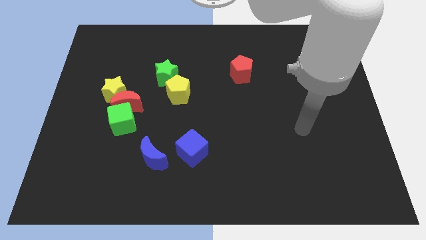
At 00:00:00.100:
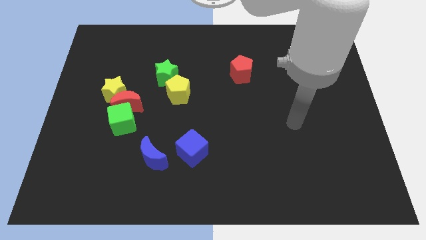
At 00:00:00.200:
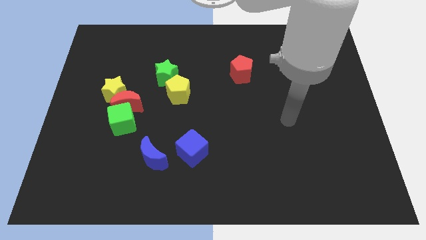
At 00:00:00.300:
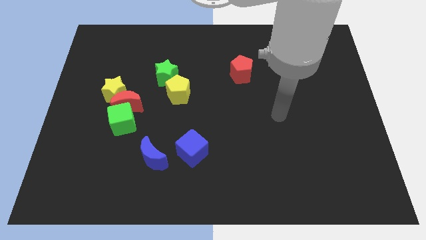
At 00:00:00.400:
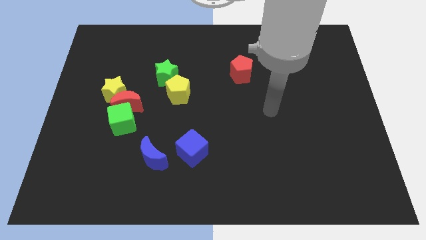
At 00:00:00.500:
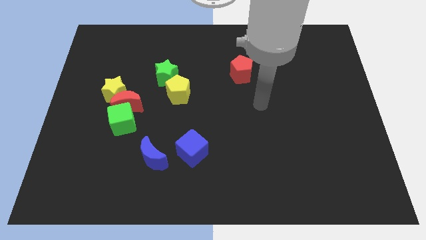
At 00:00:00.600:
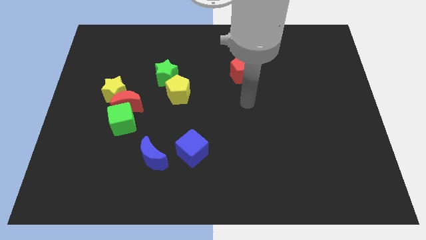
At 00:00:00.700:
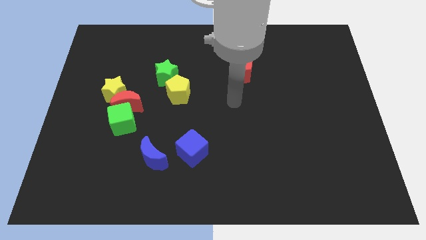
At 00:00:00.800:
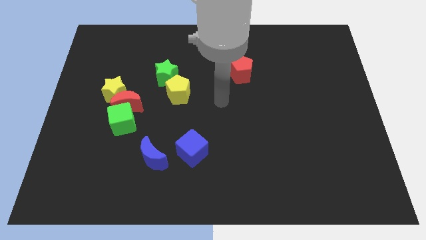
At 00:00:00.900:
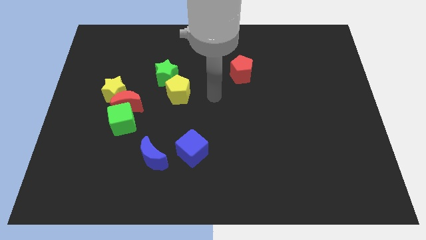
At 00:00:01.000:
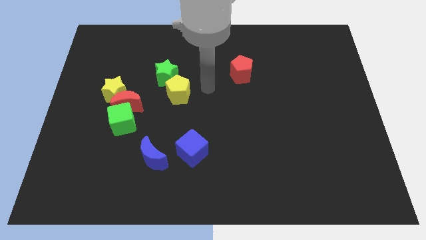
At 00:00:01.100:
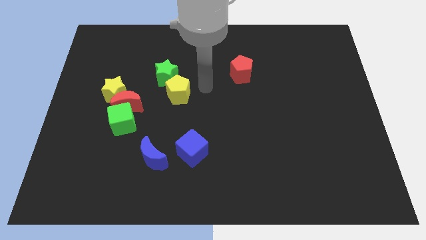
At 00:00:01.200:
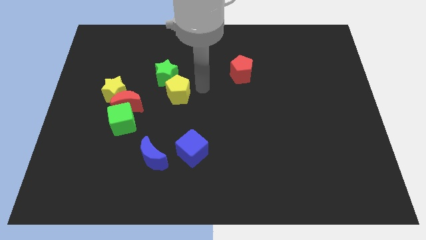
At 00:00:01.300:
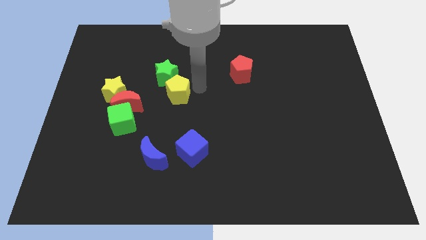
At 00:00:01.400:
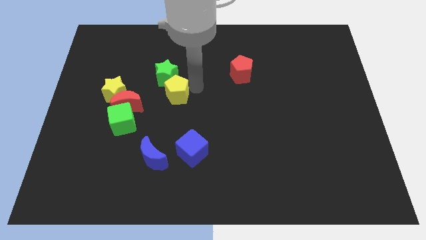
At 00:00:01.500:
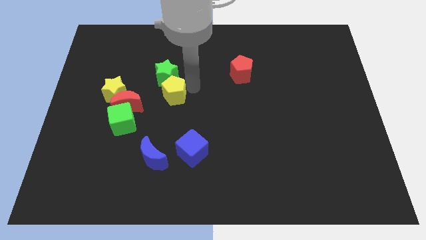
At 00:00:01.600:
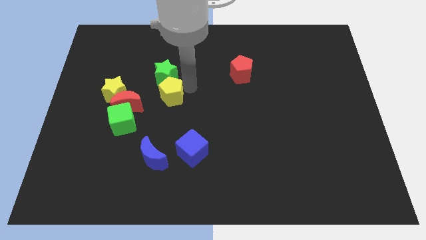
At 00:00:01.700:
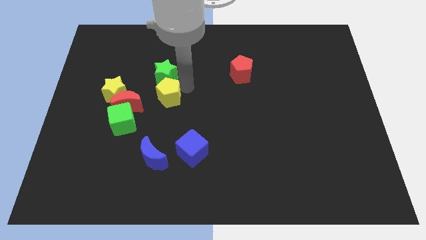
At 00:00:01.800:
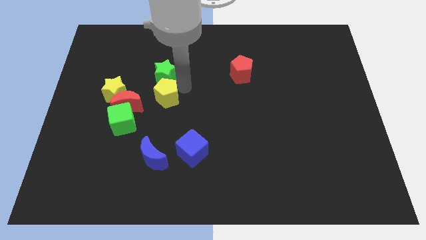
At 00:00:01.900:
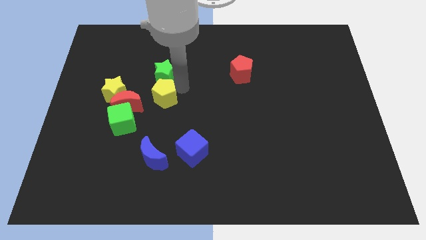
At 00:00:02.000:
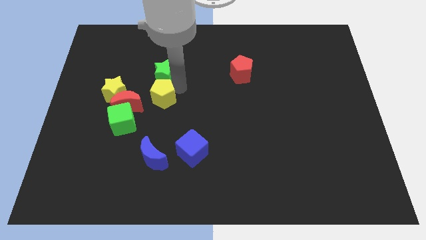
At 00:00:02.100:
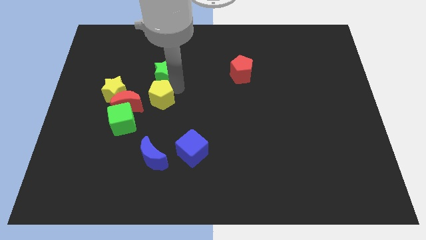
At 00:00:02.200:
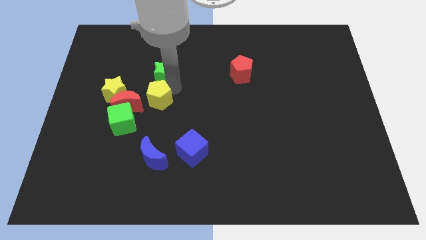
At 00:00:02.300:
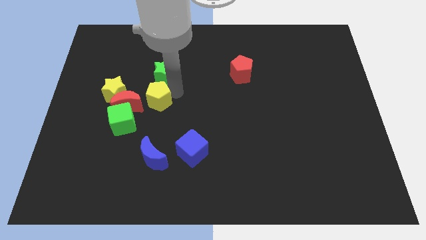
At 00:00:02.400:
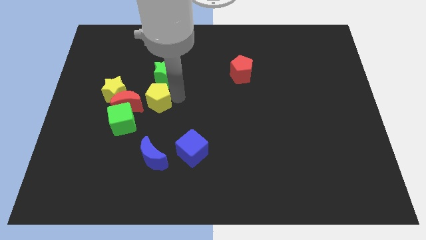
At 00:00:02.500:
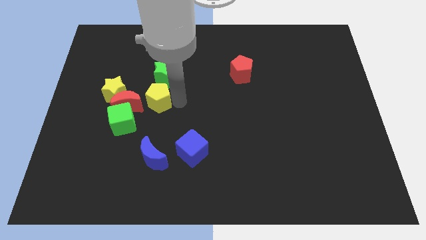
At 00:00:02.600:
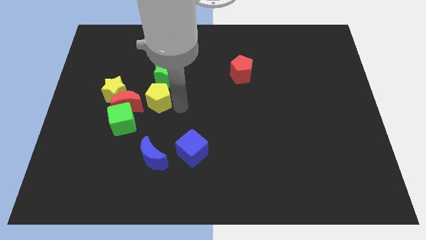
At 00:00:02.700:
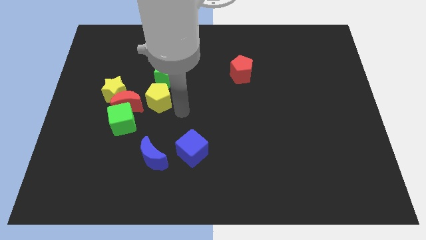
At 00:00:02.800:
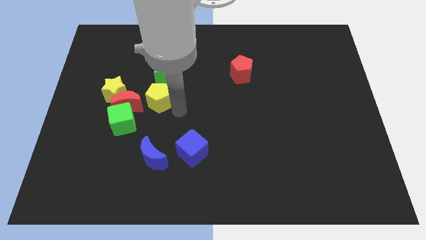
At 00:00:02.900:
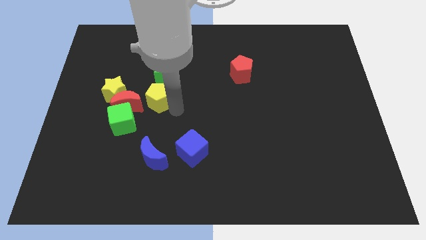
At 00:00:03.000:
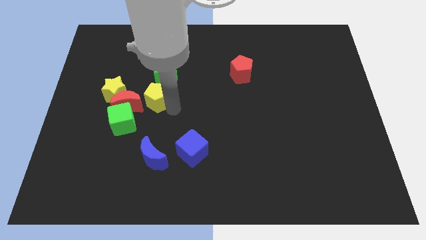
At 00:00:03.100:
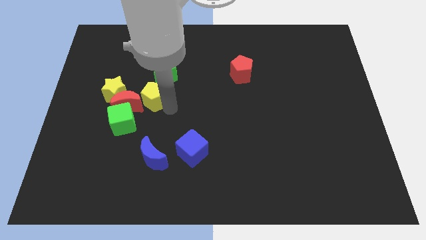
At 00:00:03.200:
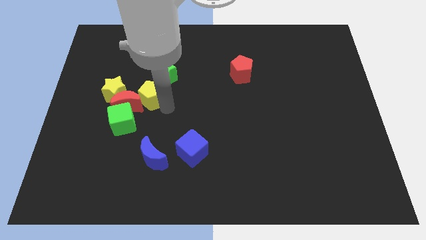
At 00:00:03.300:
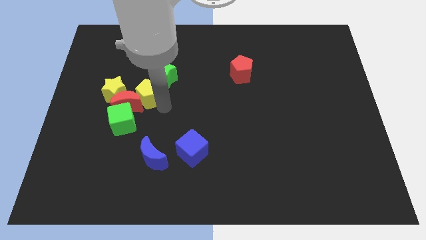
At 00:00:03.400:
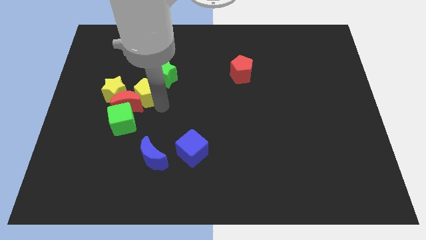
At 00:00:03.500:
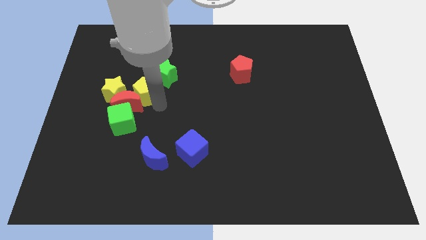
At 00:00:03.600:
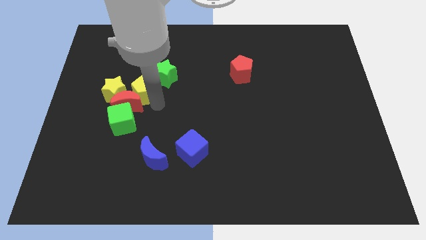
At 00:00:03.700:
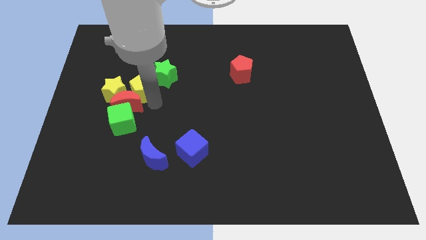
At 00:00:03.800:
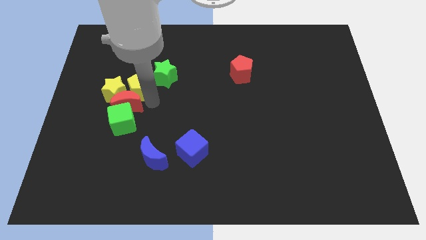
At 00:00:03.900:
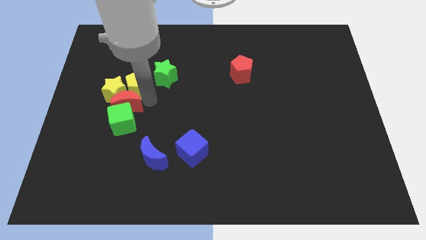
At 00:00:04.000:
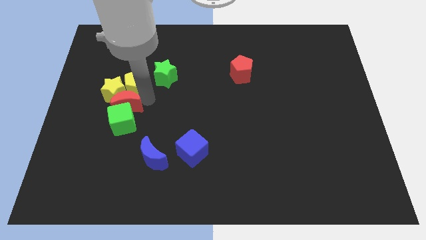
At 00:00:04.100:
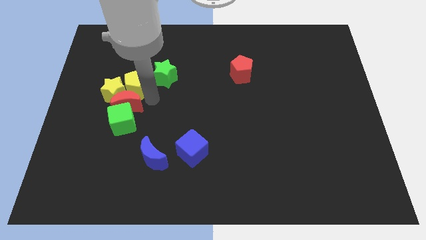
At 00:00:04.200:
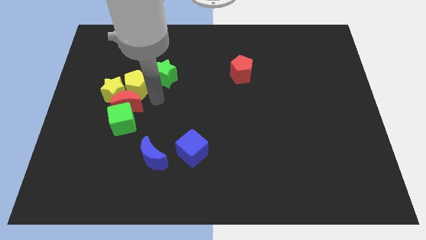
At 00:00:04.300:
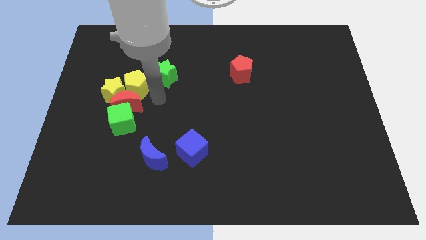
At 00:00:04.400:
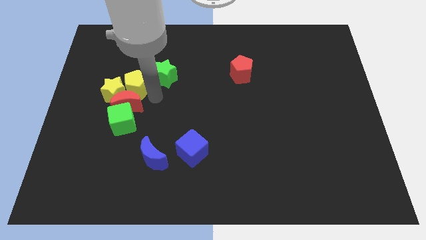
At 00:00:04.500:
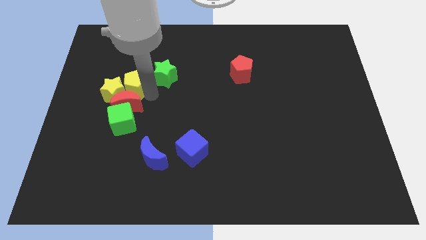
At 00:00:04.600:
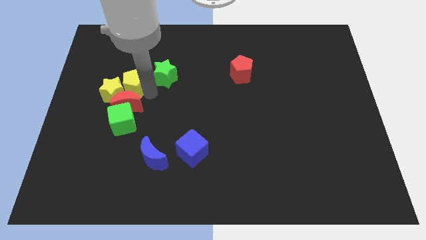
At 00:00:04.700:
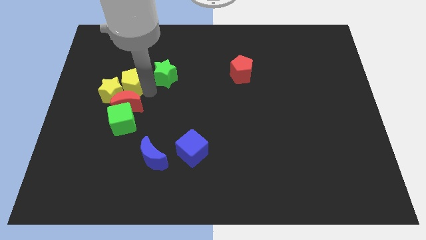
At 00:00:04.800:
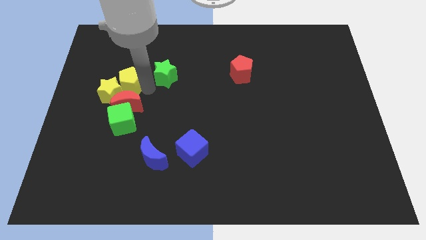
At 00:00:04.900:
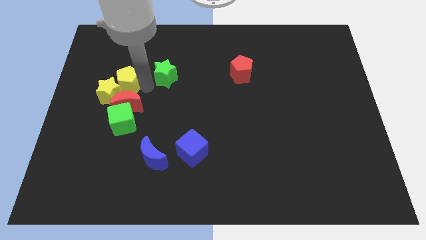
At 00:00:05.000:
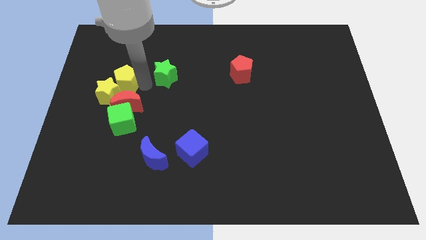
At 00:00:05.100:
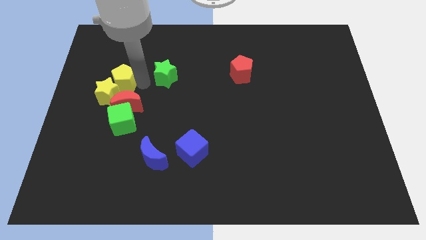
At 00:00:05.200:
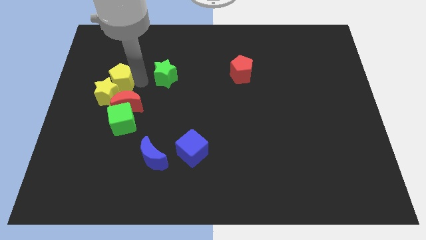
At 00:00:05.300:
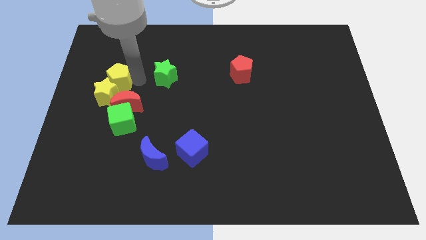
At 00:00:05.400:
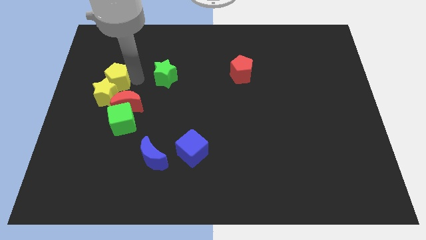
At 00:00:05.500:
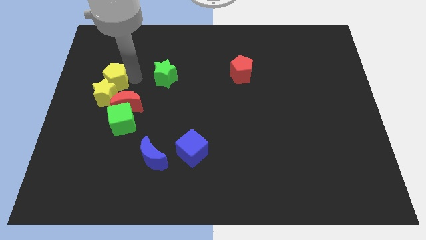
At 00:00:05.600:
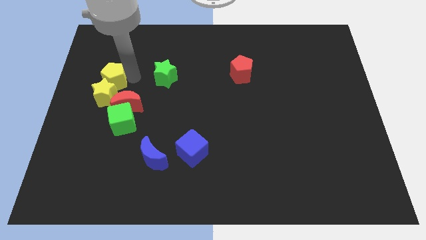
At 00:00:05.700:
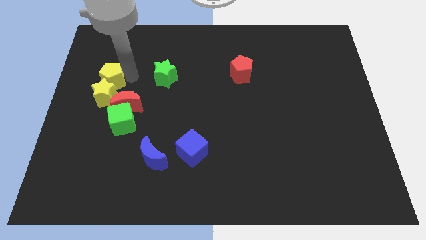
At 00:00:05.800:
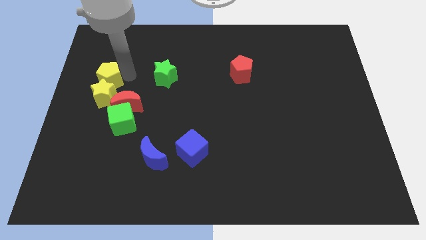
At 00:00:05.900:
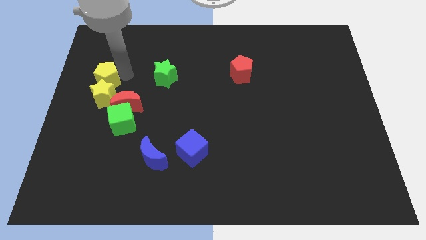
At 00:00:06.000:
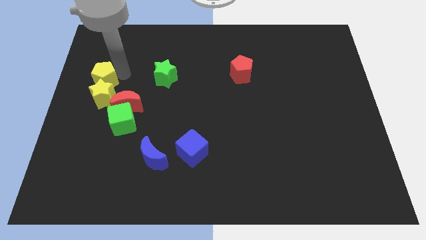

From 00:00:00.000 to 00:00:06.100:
move the yellow pentagon to the center left

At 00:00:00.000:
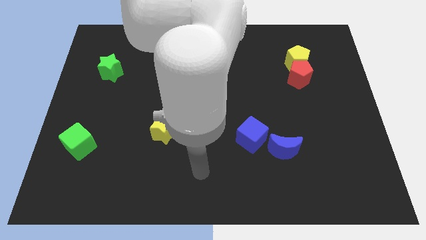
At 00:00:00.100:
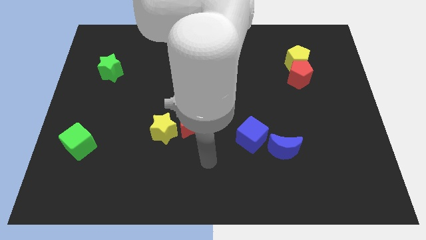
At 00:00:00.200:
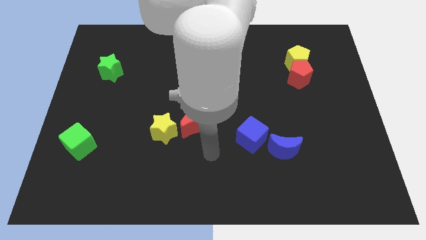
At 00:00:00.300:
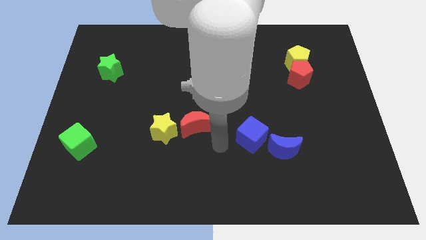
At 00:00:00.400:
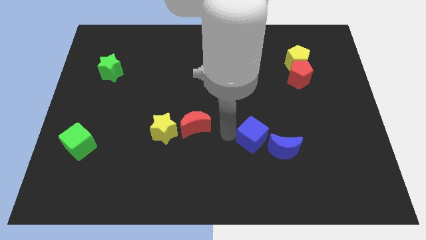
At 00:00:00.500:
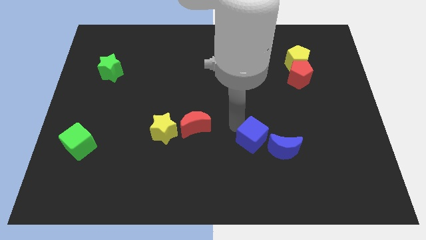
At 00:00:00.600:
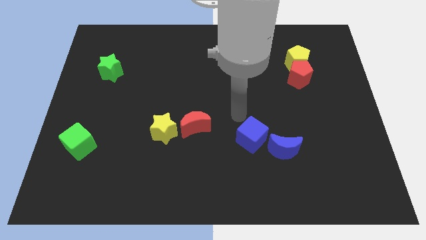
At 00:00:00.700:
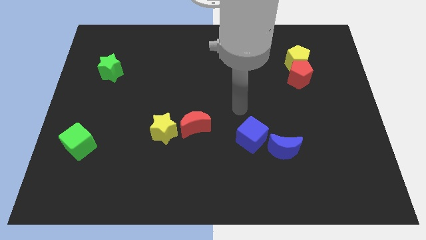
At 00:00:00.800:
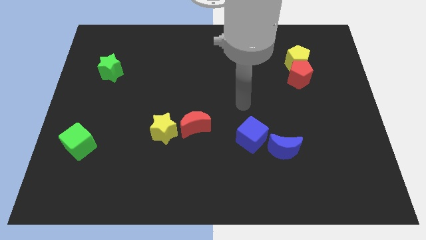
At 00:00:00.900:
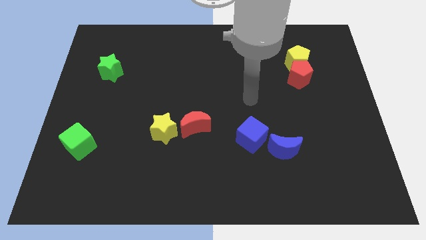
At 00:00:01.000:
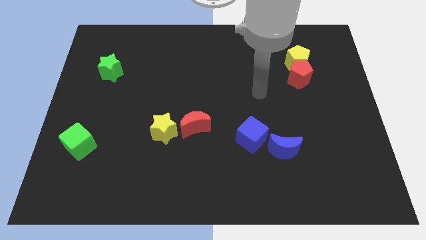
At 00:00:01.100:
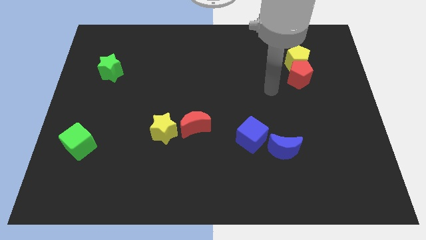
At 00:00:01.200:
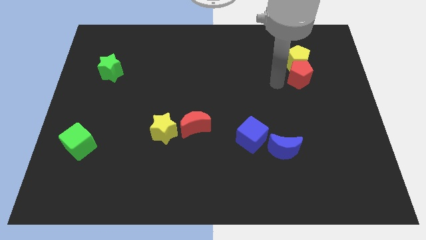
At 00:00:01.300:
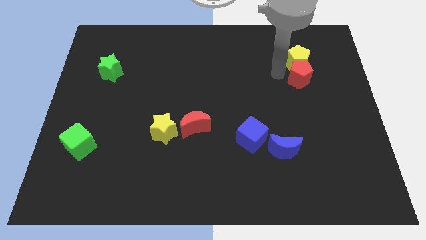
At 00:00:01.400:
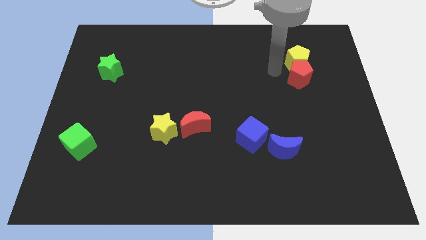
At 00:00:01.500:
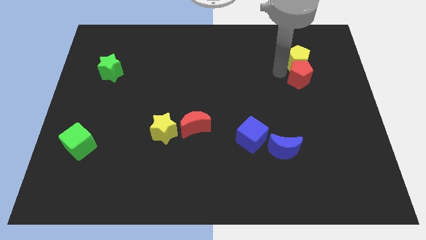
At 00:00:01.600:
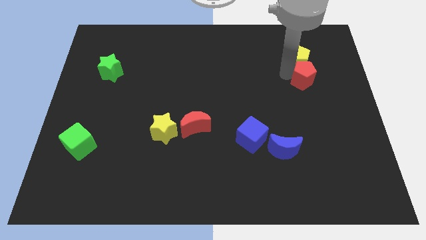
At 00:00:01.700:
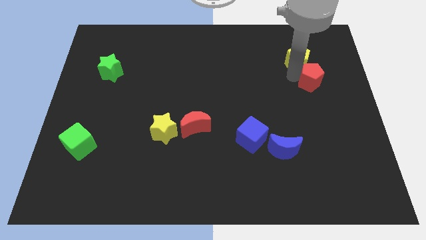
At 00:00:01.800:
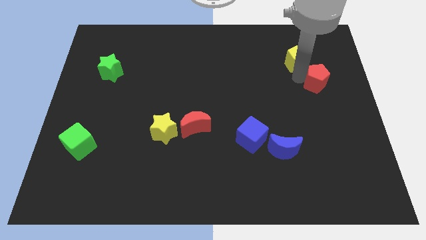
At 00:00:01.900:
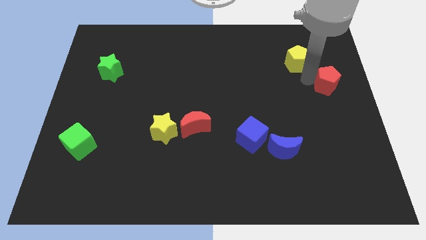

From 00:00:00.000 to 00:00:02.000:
slide the red pentagon to the center right
